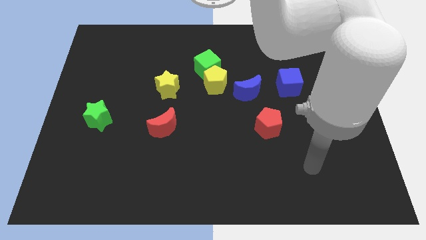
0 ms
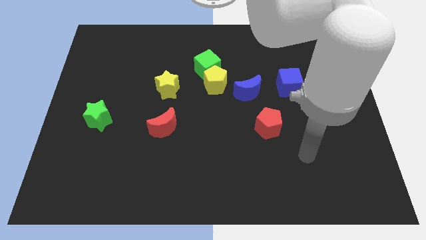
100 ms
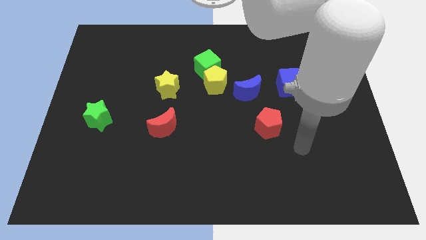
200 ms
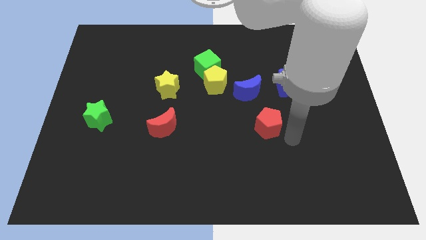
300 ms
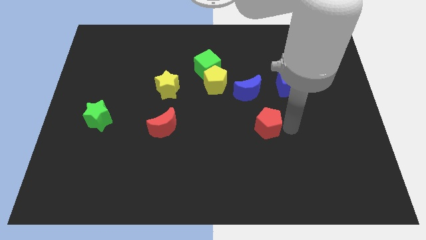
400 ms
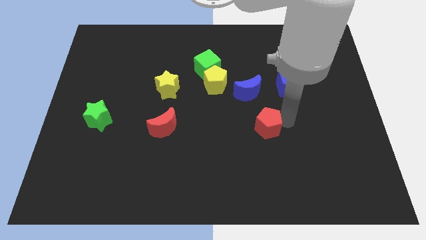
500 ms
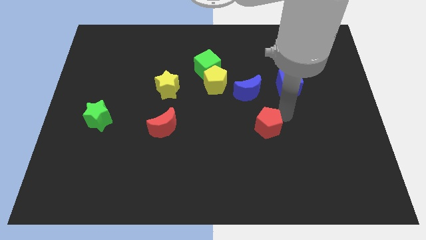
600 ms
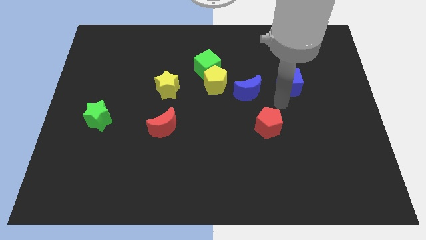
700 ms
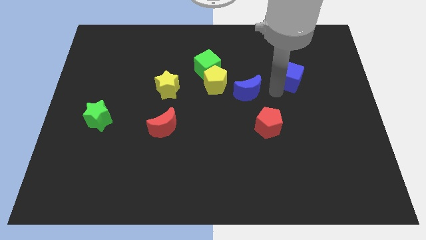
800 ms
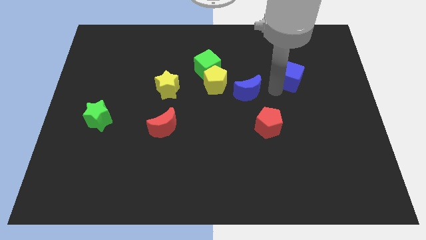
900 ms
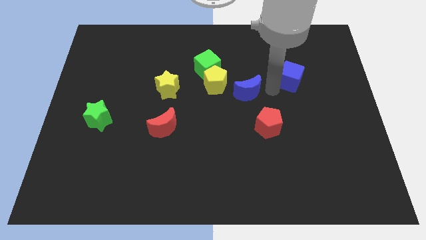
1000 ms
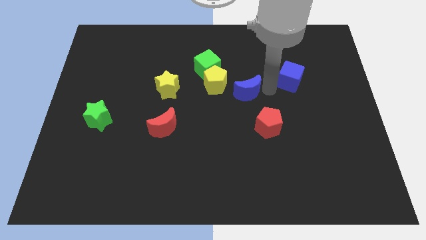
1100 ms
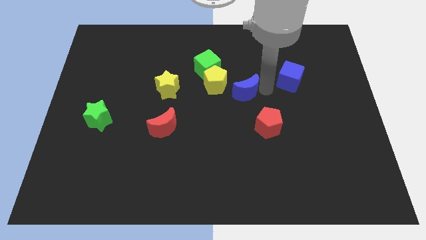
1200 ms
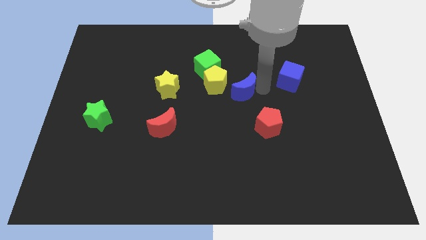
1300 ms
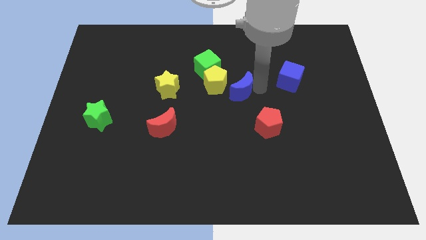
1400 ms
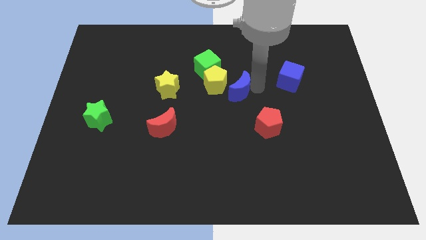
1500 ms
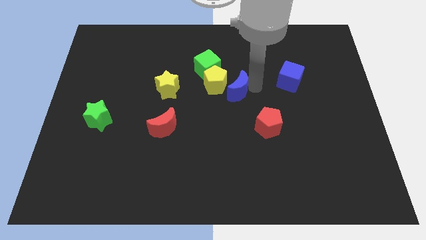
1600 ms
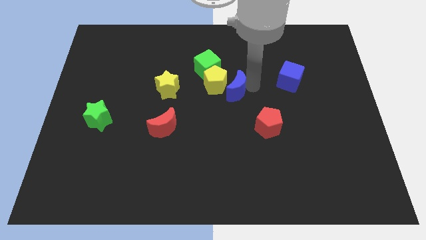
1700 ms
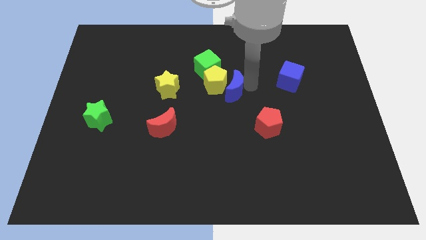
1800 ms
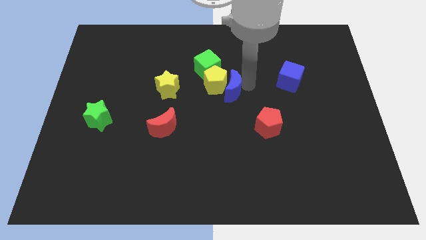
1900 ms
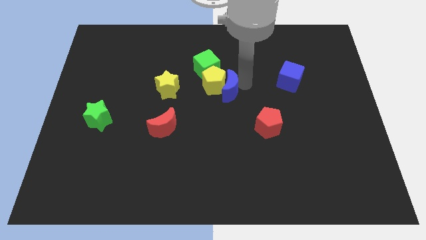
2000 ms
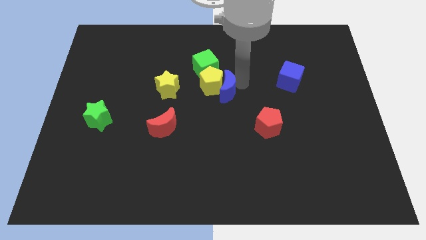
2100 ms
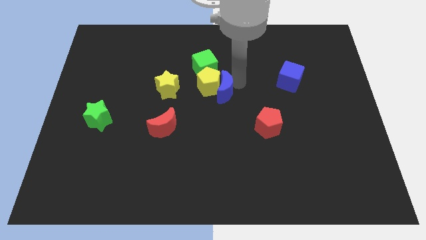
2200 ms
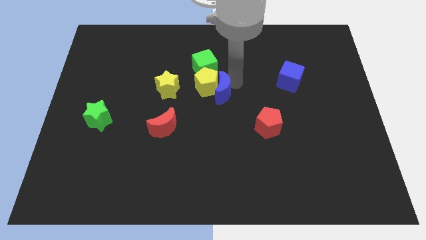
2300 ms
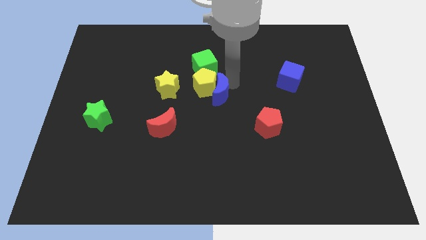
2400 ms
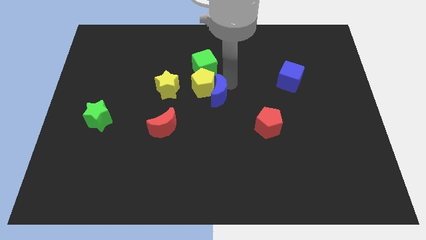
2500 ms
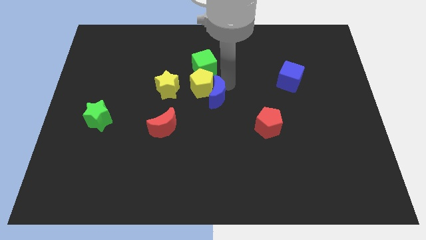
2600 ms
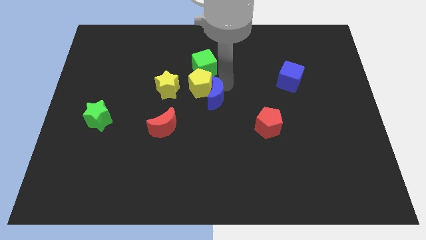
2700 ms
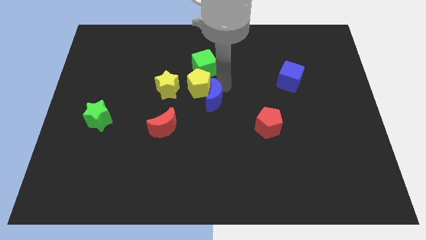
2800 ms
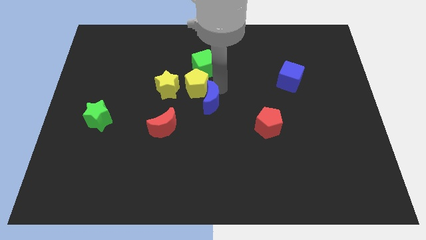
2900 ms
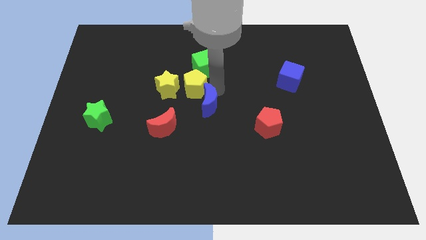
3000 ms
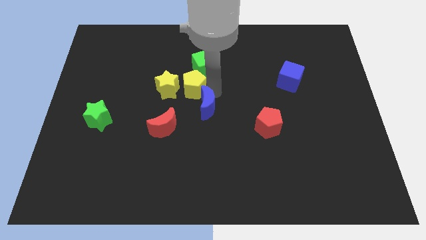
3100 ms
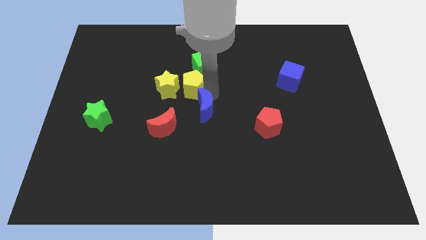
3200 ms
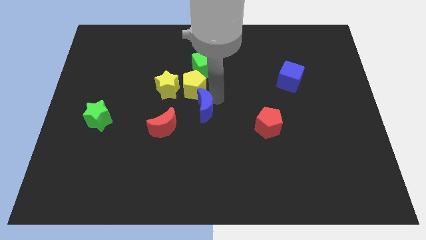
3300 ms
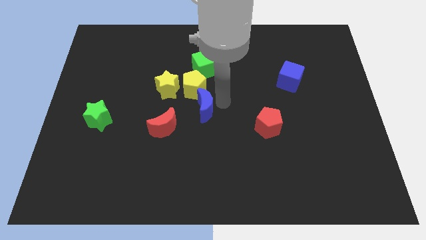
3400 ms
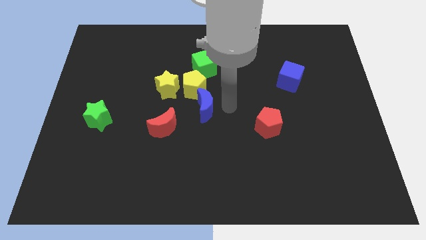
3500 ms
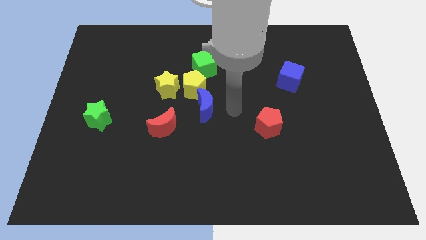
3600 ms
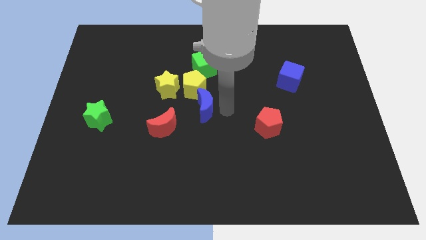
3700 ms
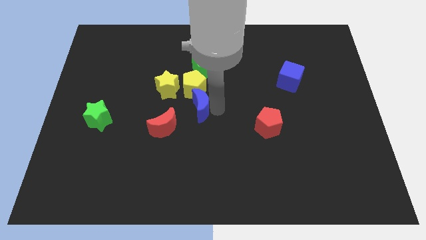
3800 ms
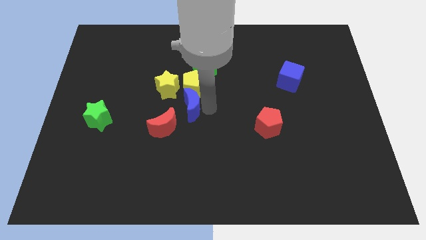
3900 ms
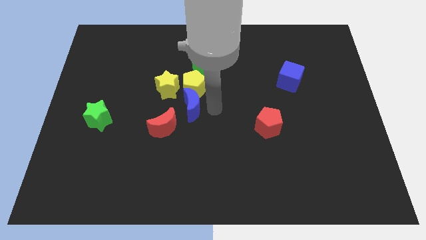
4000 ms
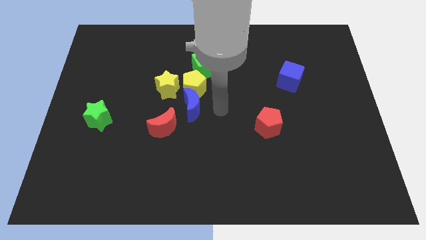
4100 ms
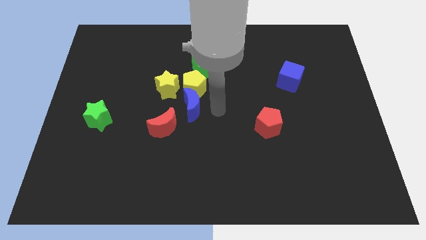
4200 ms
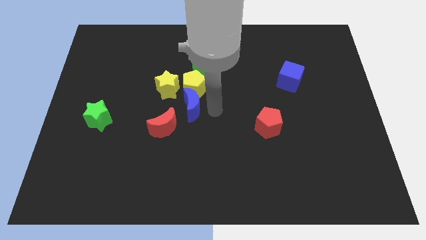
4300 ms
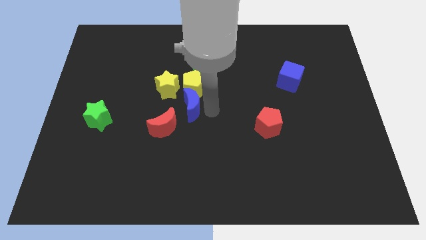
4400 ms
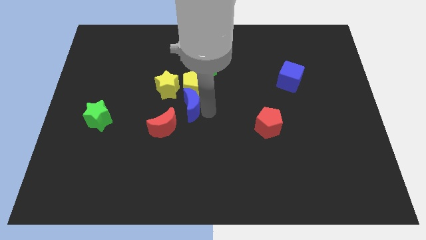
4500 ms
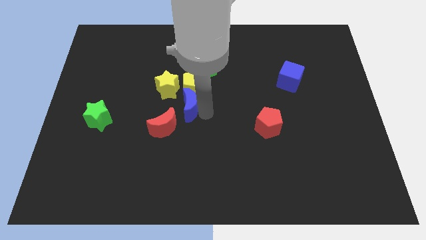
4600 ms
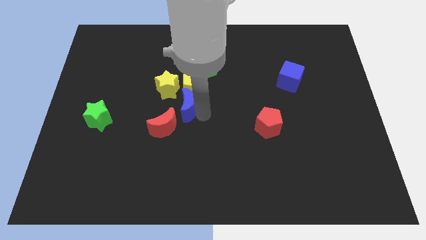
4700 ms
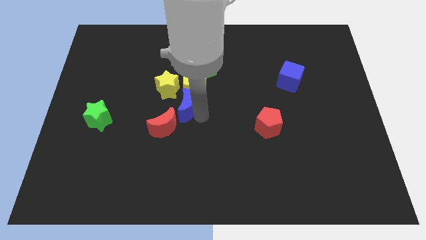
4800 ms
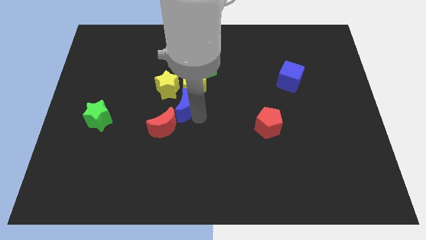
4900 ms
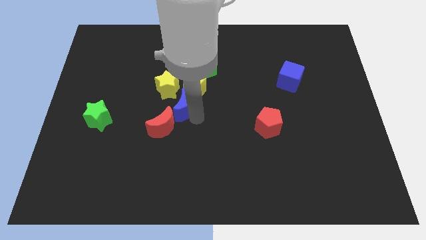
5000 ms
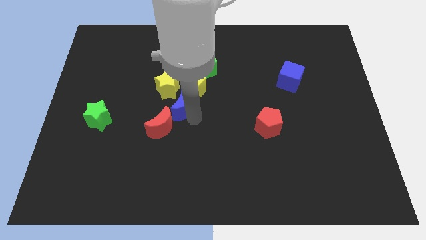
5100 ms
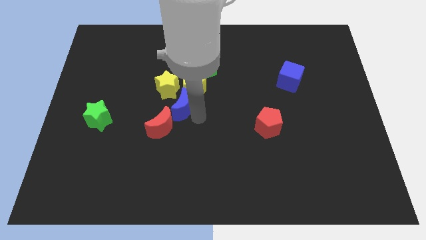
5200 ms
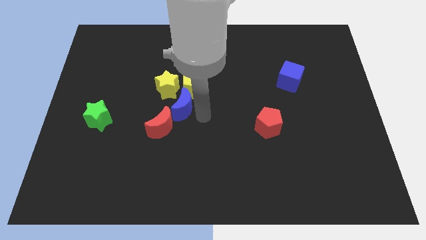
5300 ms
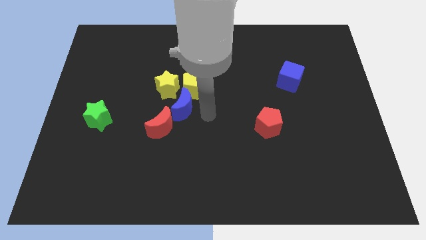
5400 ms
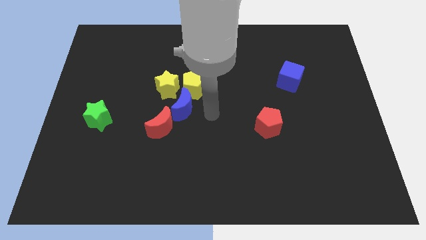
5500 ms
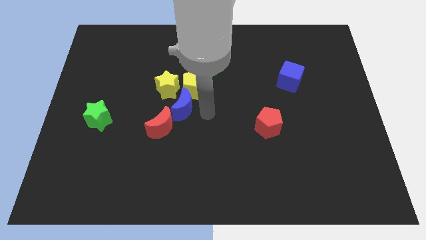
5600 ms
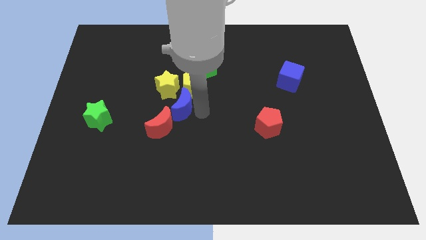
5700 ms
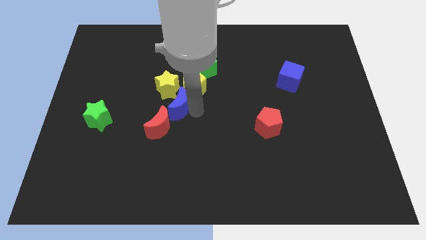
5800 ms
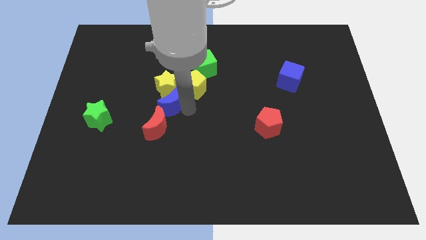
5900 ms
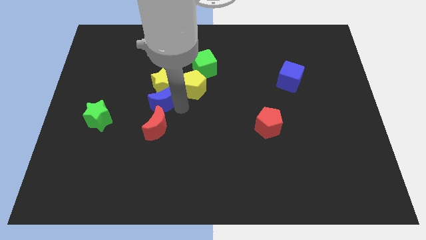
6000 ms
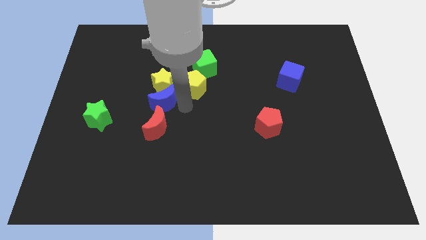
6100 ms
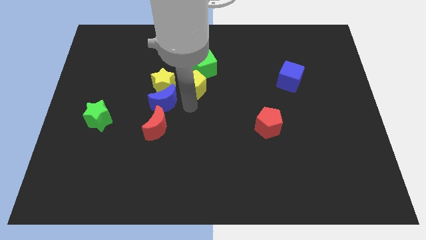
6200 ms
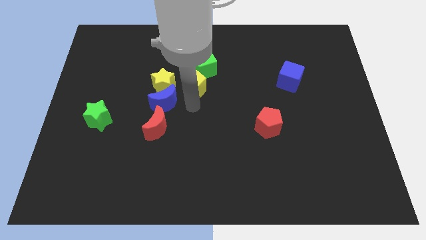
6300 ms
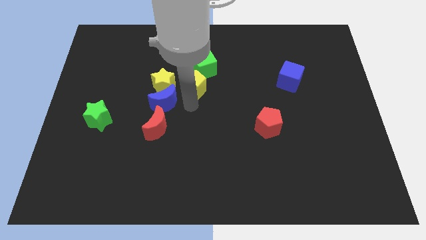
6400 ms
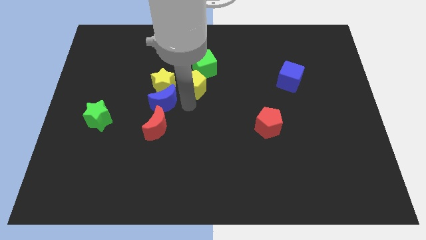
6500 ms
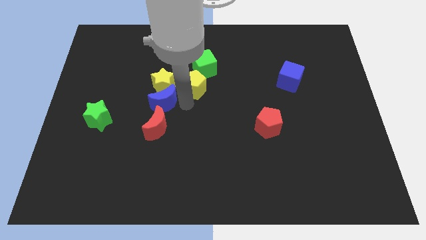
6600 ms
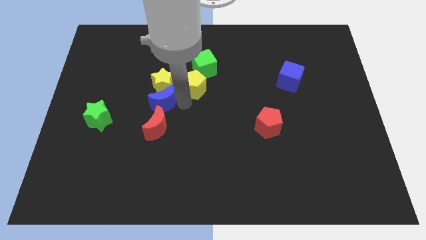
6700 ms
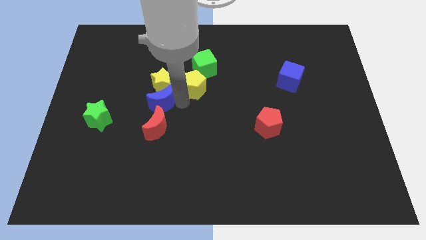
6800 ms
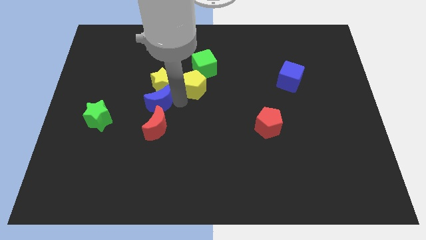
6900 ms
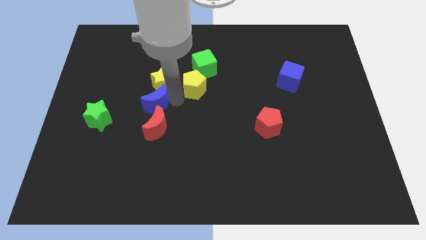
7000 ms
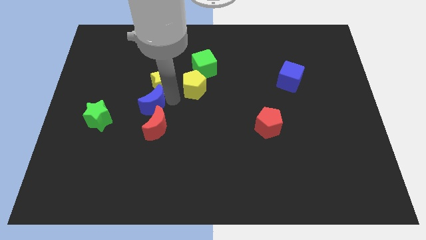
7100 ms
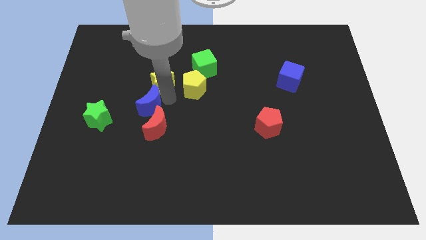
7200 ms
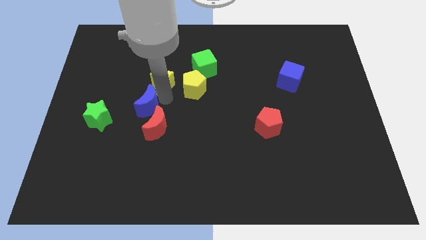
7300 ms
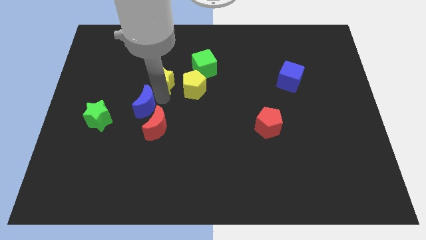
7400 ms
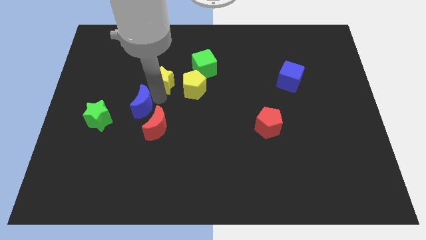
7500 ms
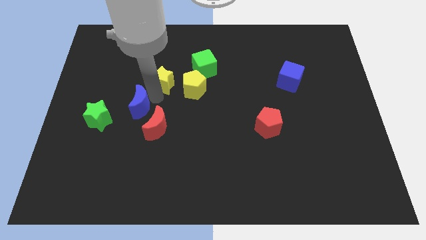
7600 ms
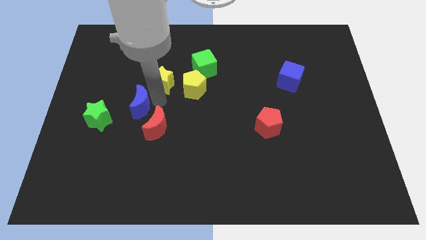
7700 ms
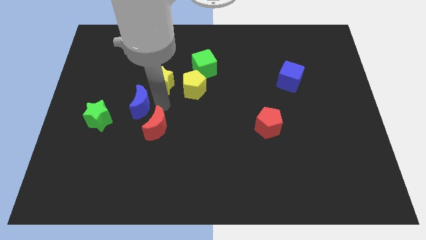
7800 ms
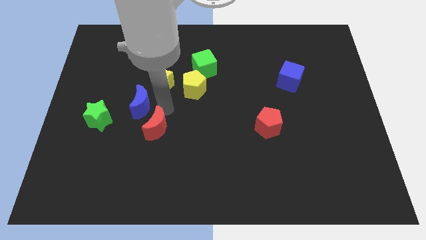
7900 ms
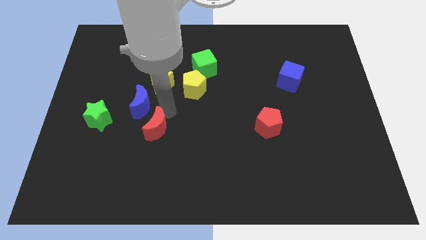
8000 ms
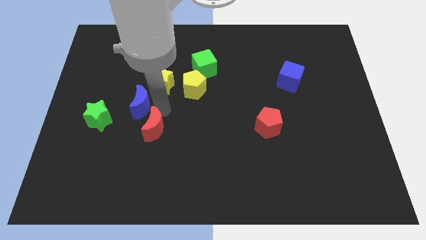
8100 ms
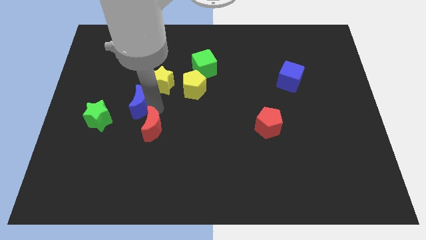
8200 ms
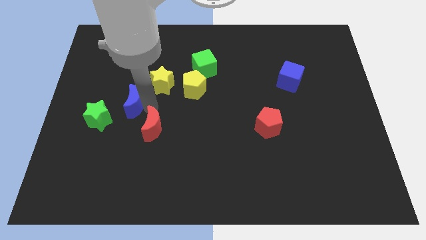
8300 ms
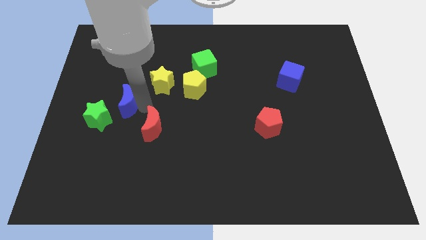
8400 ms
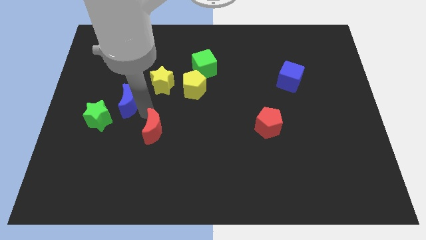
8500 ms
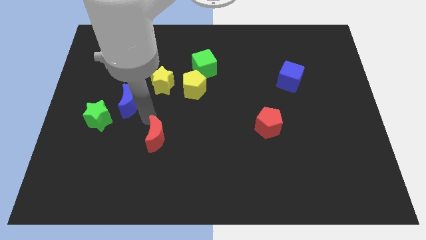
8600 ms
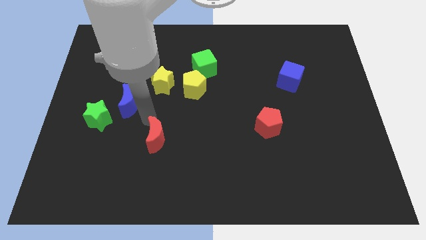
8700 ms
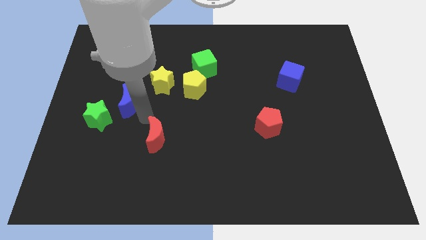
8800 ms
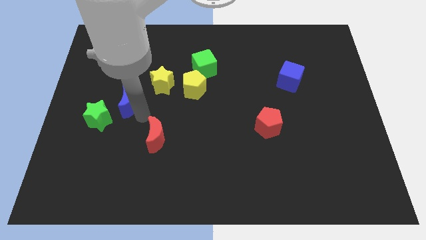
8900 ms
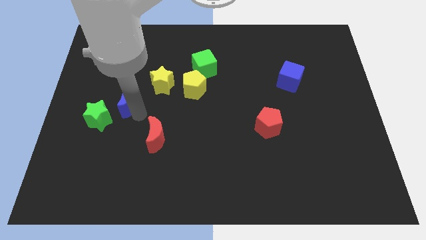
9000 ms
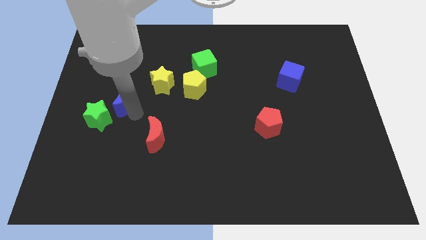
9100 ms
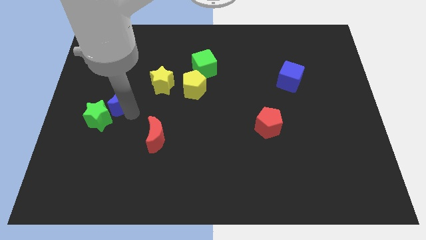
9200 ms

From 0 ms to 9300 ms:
put the blue moon to the top of the green star
